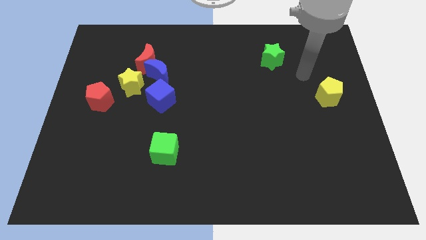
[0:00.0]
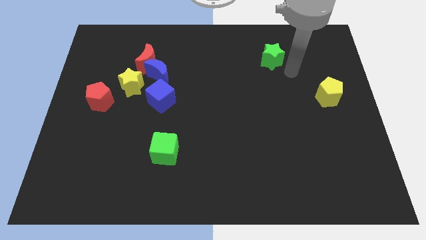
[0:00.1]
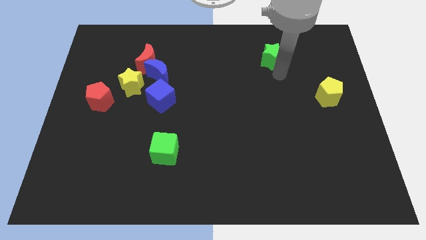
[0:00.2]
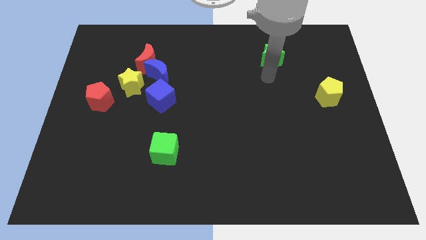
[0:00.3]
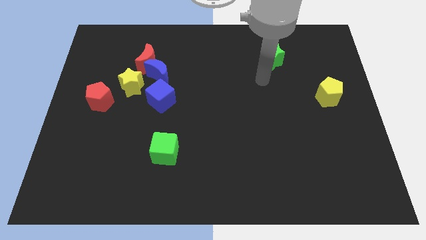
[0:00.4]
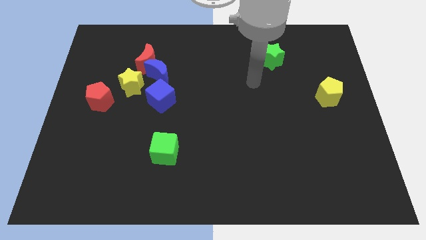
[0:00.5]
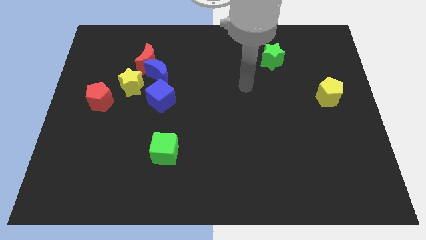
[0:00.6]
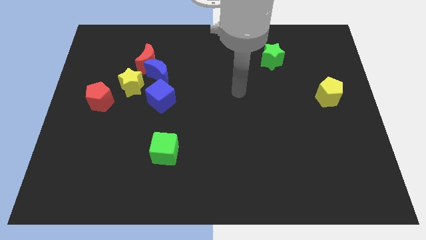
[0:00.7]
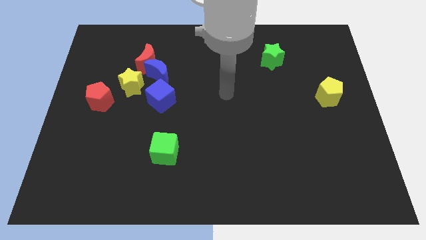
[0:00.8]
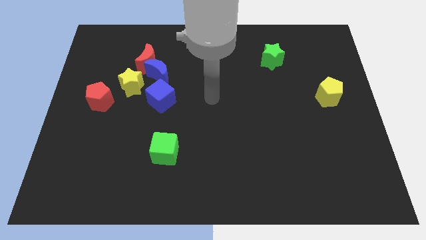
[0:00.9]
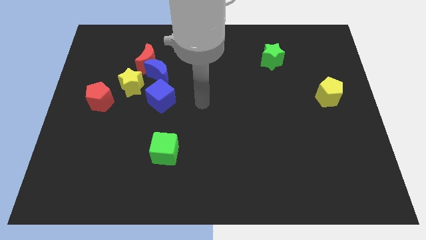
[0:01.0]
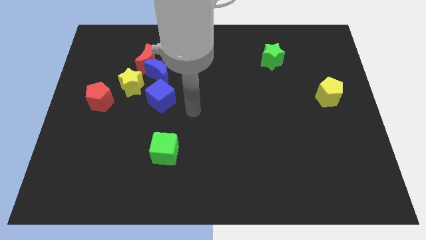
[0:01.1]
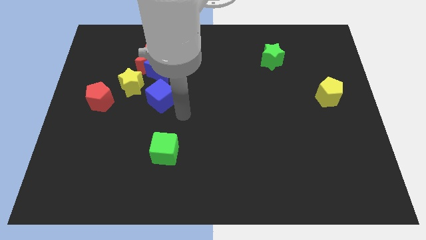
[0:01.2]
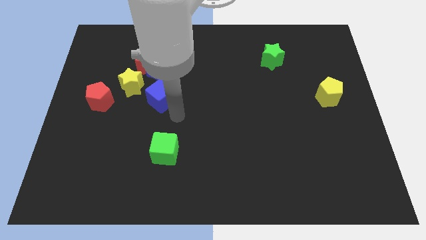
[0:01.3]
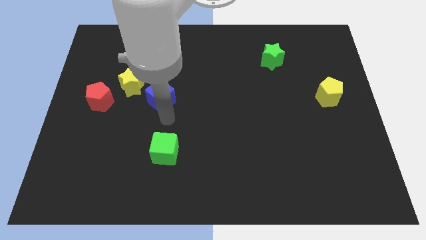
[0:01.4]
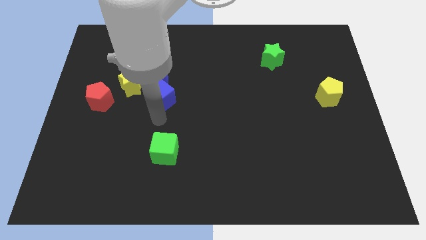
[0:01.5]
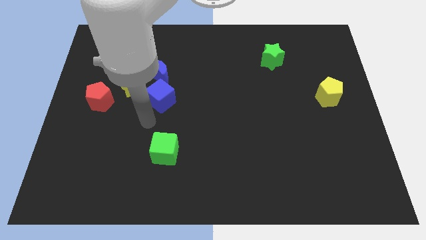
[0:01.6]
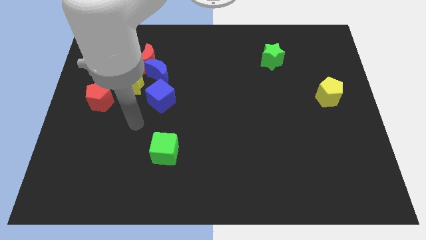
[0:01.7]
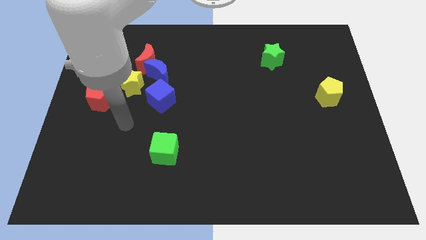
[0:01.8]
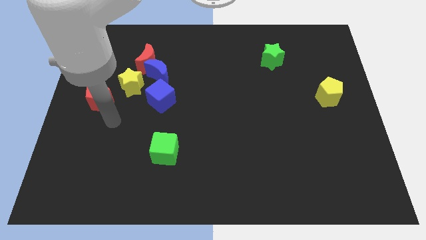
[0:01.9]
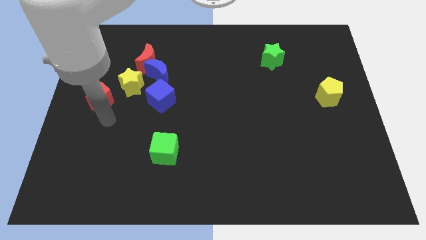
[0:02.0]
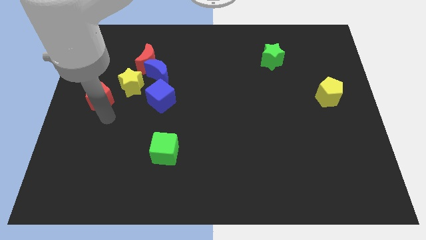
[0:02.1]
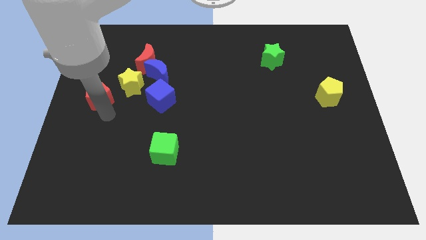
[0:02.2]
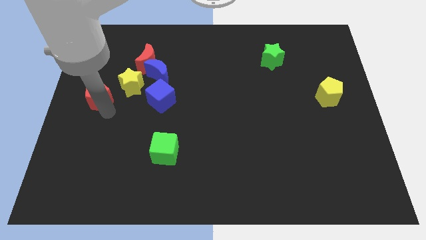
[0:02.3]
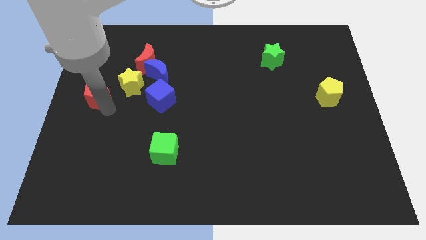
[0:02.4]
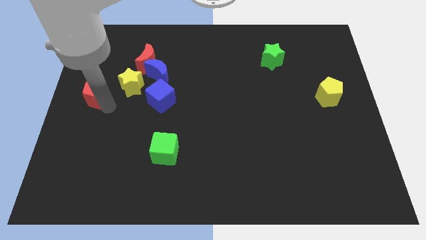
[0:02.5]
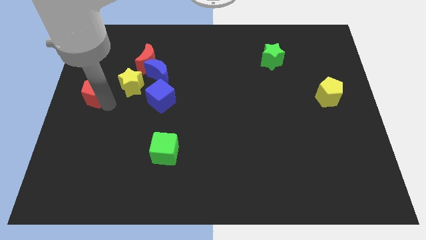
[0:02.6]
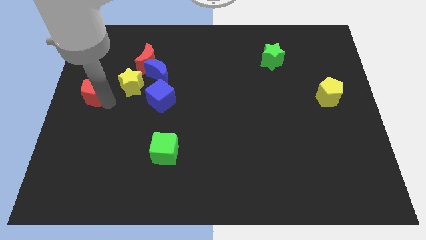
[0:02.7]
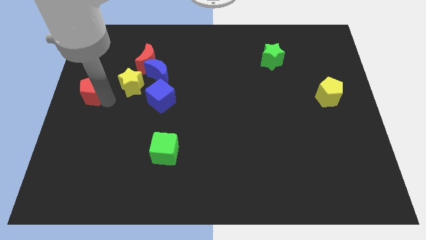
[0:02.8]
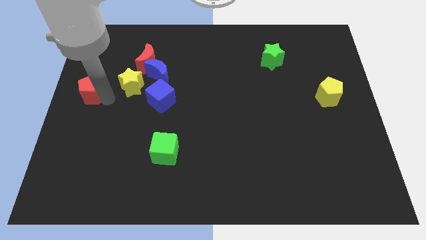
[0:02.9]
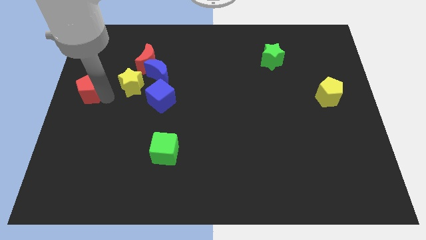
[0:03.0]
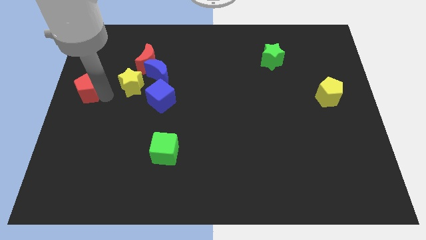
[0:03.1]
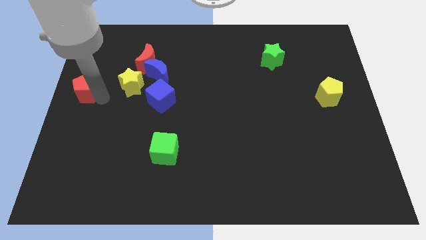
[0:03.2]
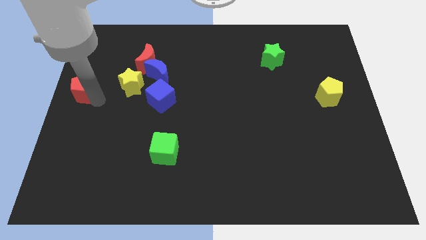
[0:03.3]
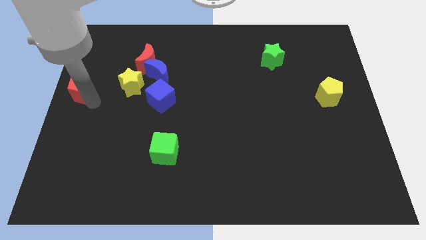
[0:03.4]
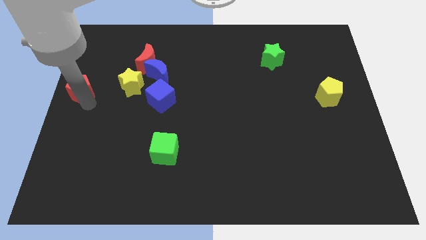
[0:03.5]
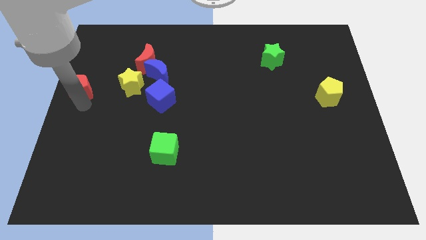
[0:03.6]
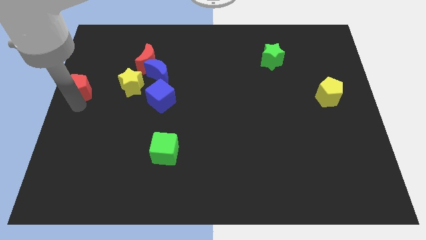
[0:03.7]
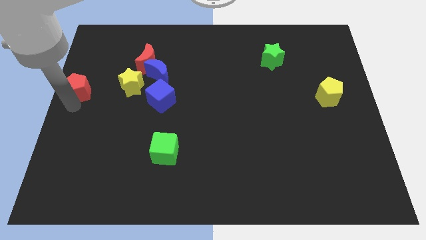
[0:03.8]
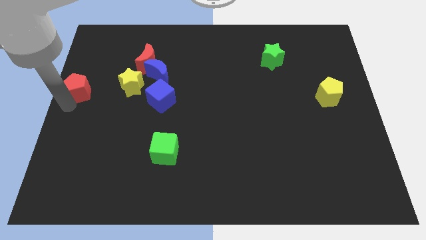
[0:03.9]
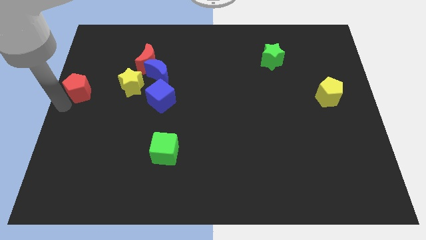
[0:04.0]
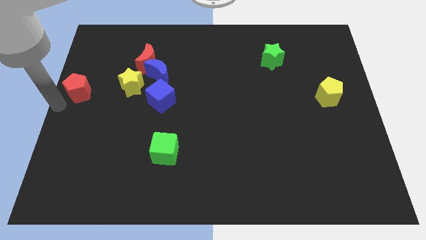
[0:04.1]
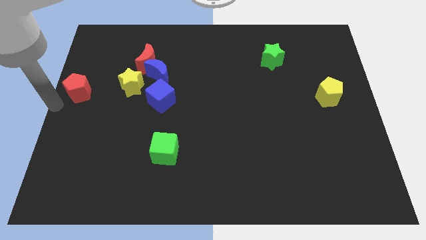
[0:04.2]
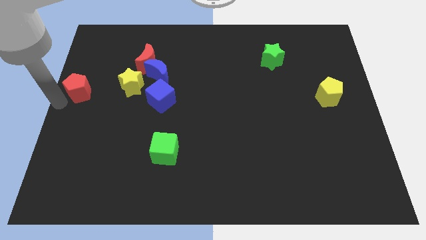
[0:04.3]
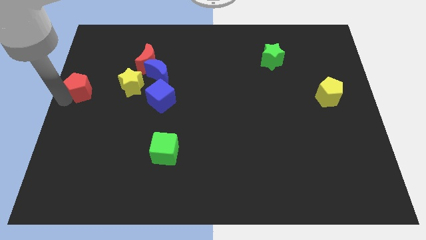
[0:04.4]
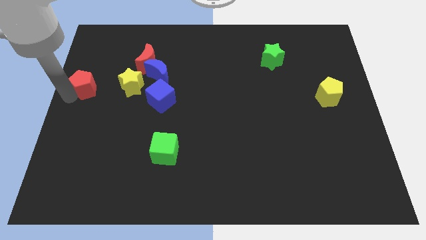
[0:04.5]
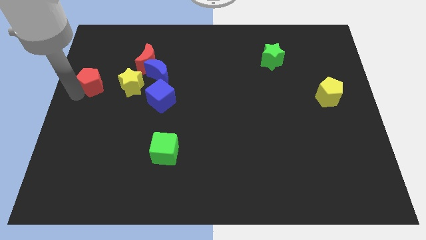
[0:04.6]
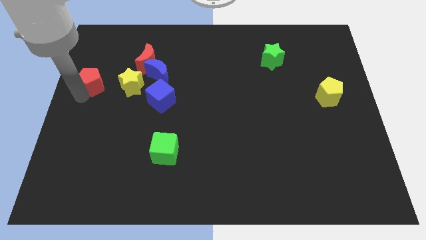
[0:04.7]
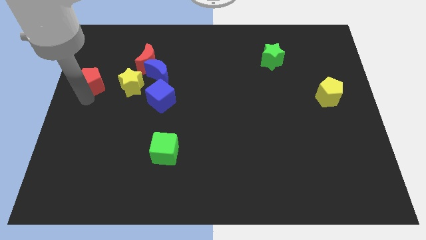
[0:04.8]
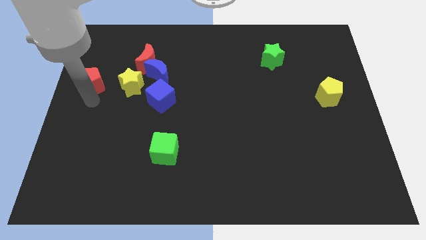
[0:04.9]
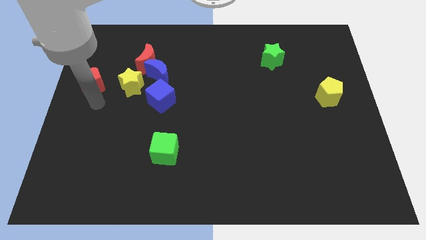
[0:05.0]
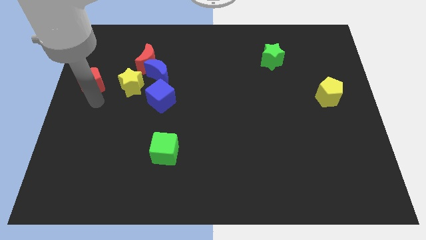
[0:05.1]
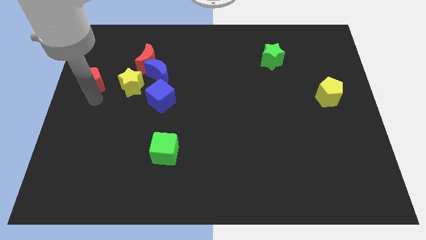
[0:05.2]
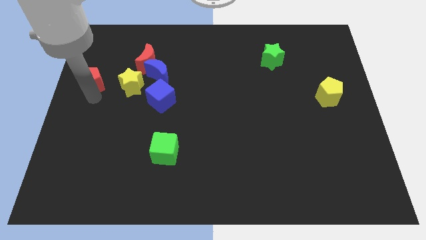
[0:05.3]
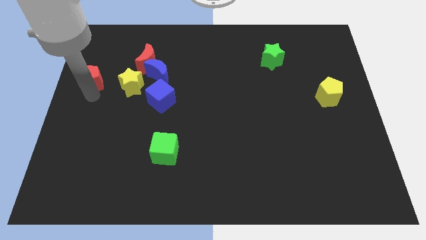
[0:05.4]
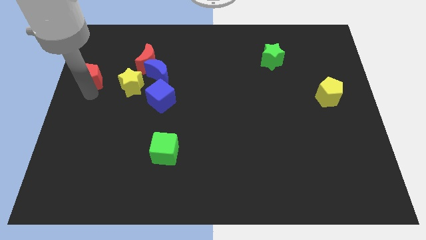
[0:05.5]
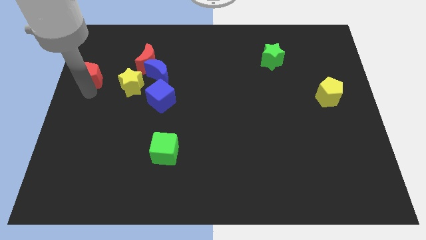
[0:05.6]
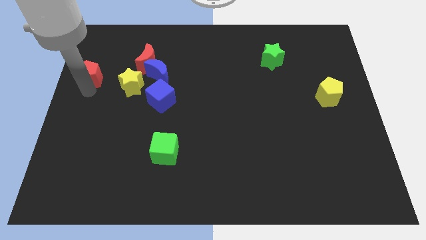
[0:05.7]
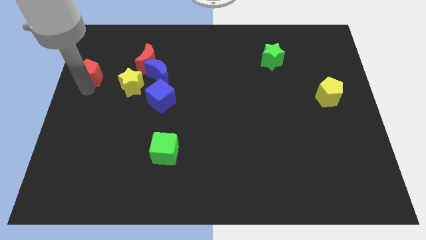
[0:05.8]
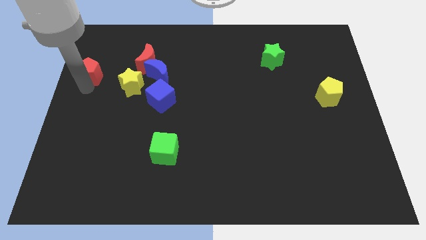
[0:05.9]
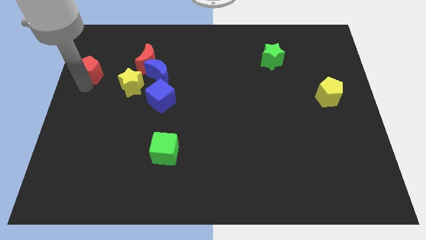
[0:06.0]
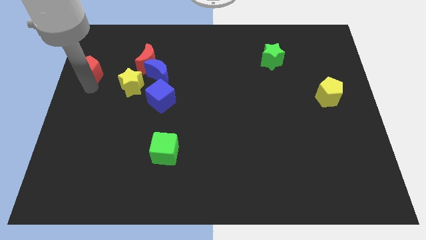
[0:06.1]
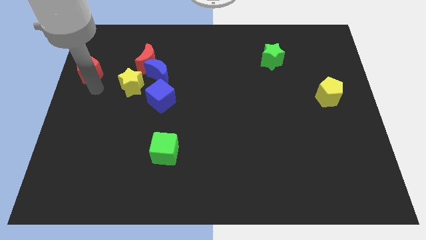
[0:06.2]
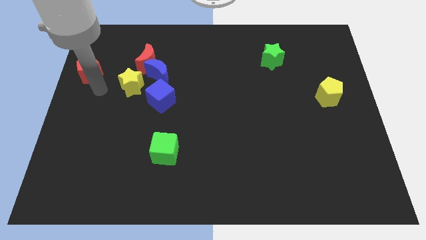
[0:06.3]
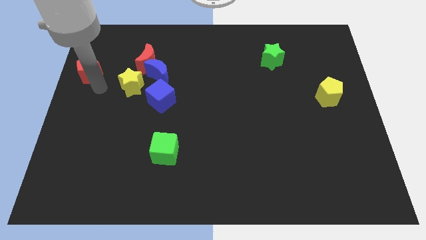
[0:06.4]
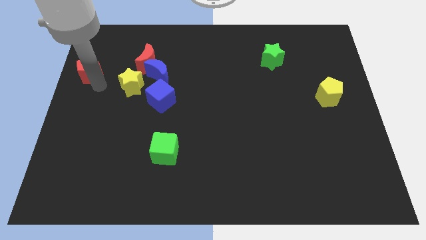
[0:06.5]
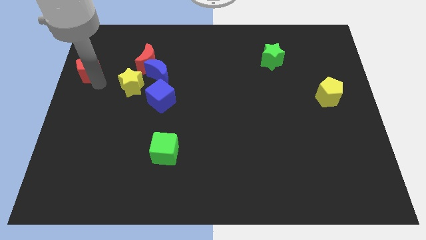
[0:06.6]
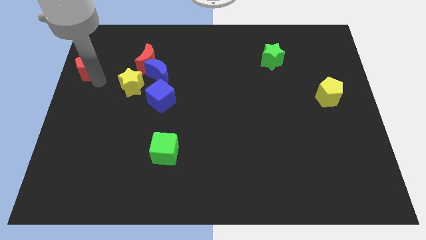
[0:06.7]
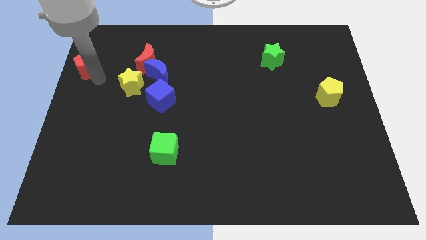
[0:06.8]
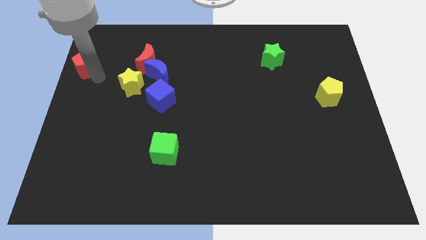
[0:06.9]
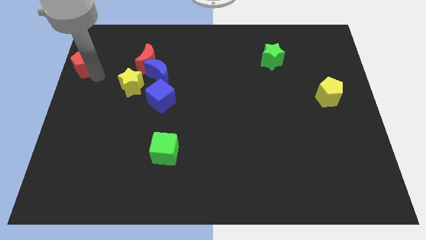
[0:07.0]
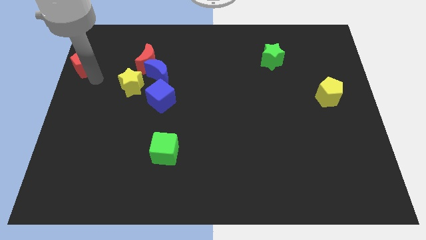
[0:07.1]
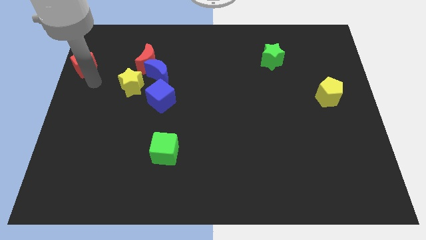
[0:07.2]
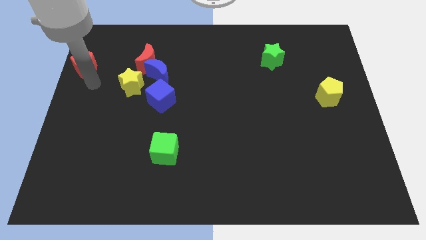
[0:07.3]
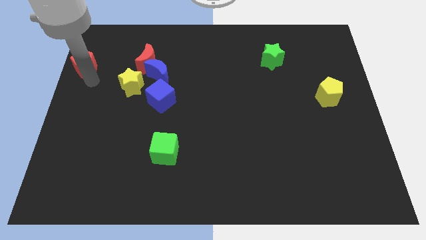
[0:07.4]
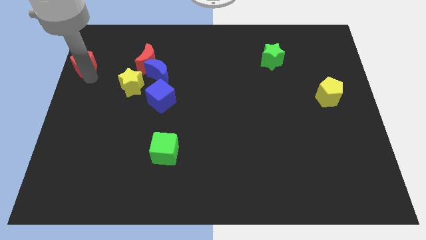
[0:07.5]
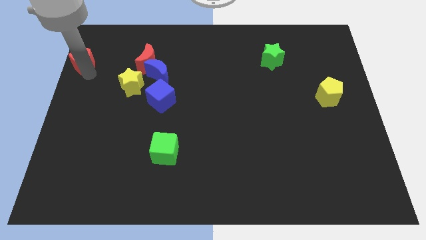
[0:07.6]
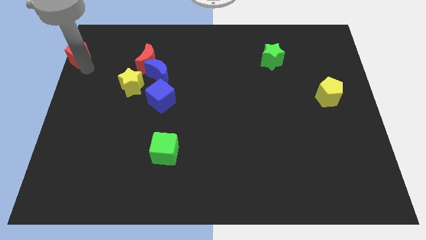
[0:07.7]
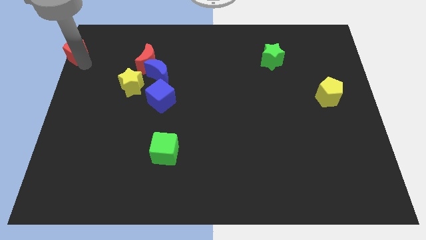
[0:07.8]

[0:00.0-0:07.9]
slide the red pentagon to the top left of the board
